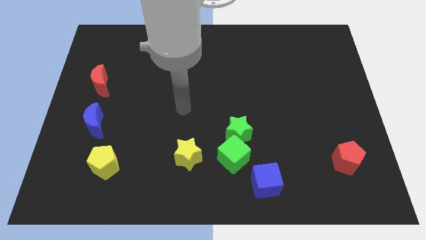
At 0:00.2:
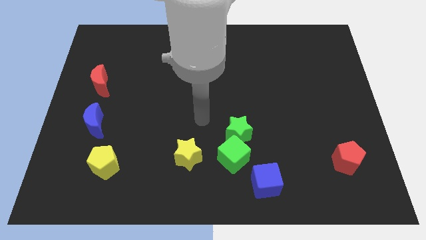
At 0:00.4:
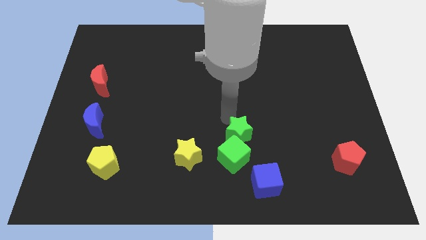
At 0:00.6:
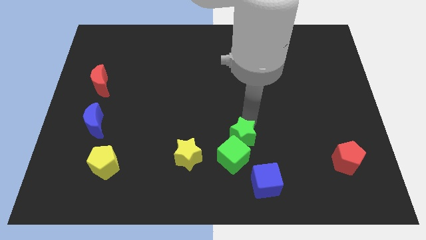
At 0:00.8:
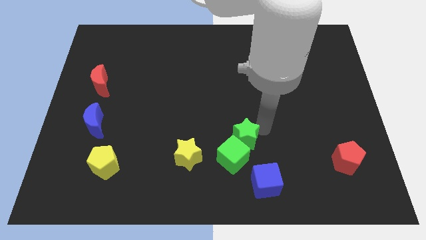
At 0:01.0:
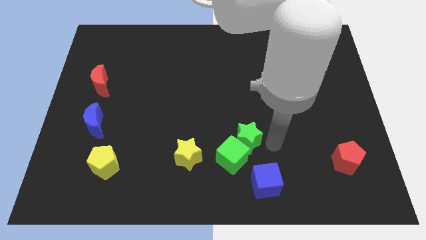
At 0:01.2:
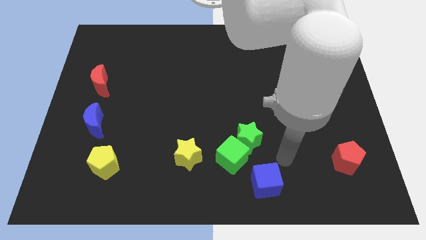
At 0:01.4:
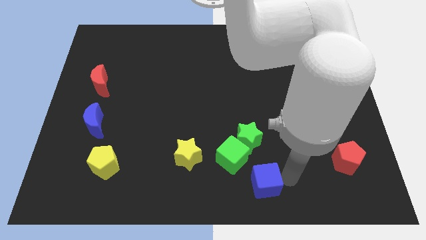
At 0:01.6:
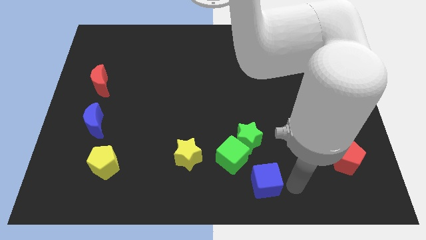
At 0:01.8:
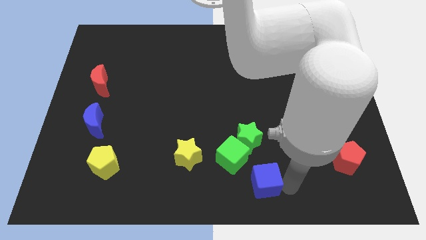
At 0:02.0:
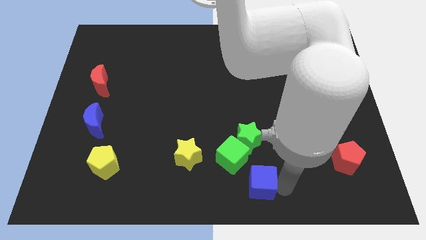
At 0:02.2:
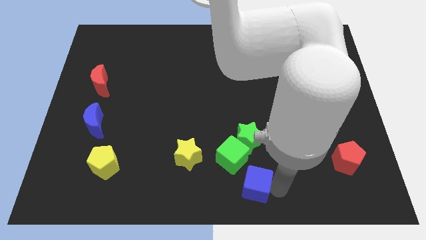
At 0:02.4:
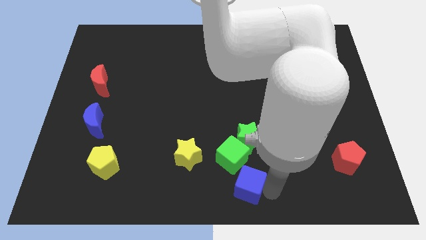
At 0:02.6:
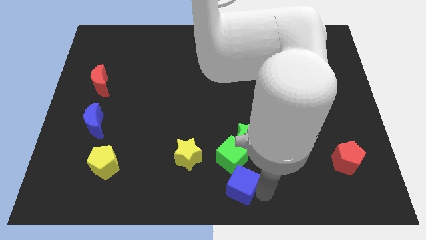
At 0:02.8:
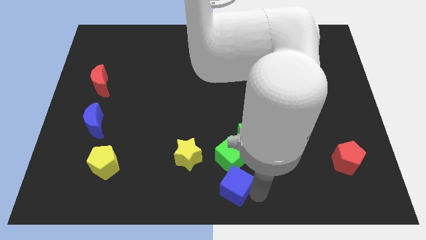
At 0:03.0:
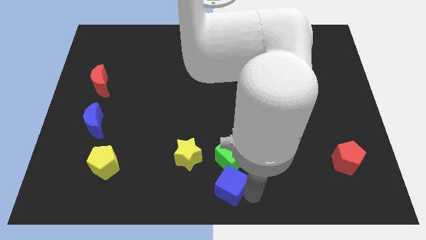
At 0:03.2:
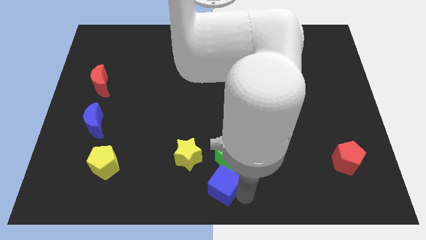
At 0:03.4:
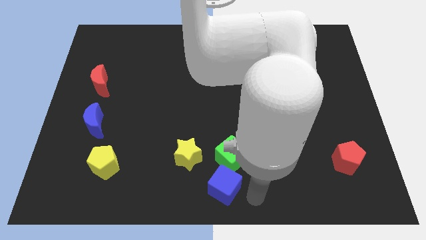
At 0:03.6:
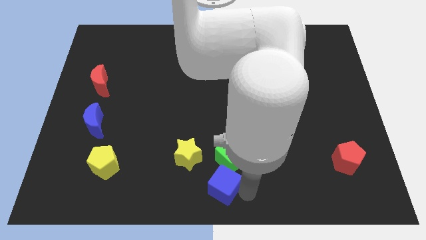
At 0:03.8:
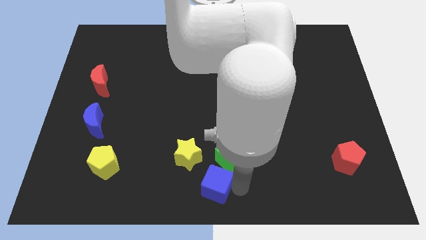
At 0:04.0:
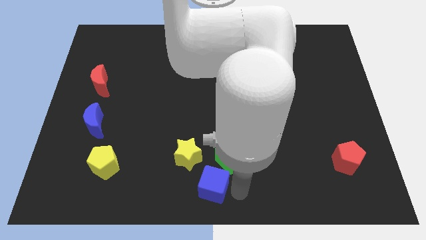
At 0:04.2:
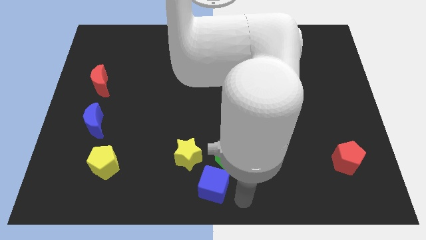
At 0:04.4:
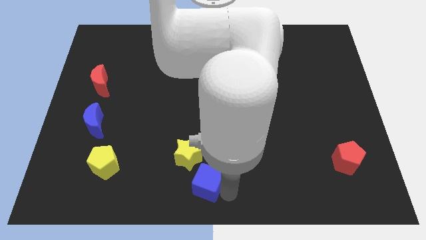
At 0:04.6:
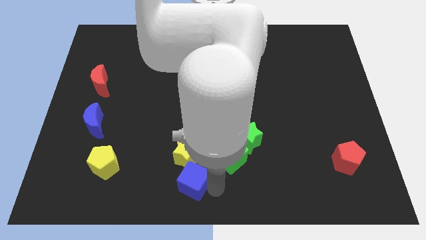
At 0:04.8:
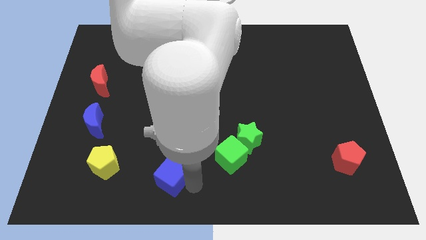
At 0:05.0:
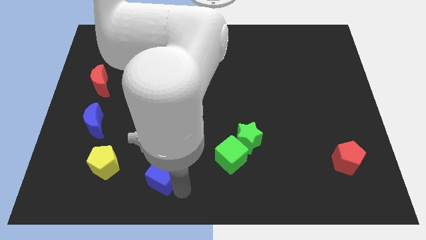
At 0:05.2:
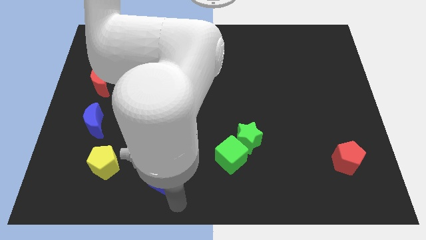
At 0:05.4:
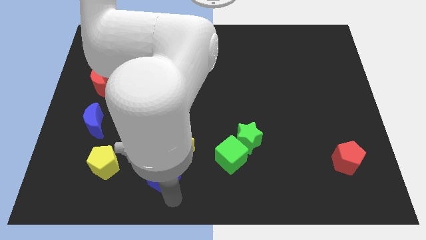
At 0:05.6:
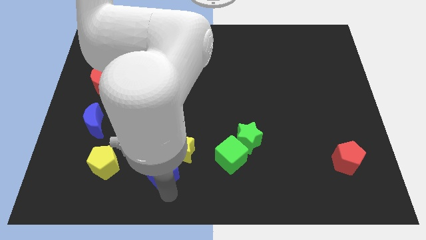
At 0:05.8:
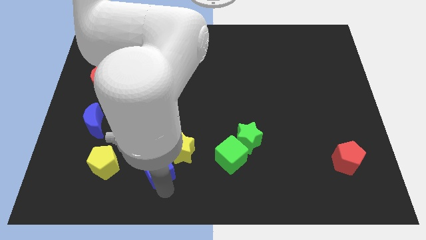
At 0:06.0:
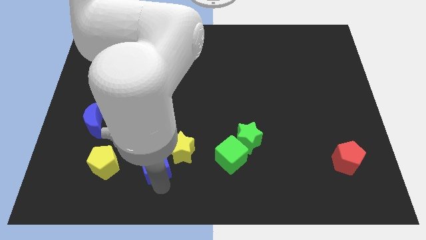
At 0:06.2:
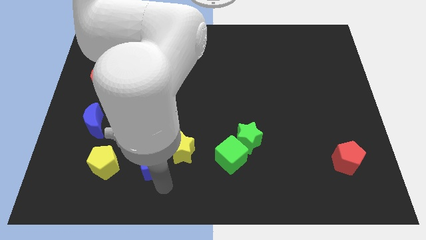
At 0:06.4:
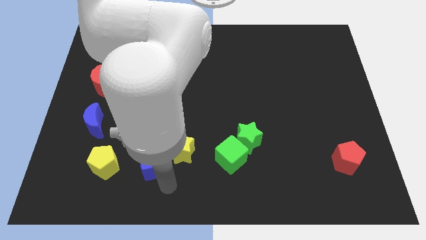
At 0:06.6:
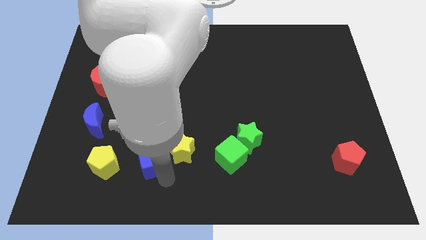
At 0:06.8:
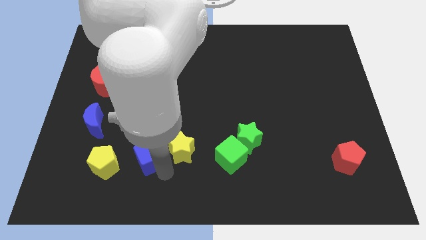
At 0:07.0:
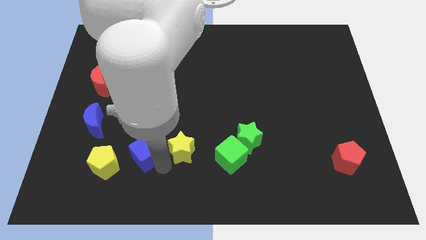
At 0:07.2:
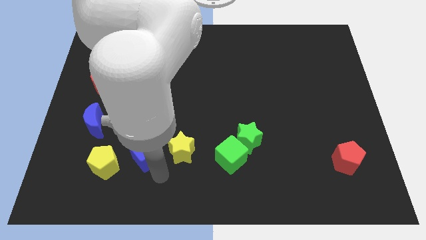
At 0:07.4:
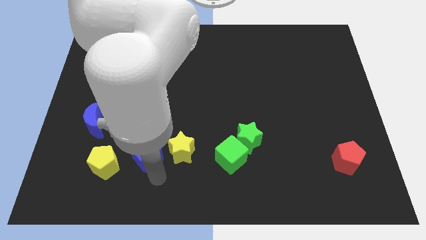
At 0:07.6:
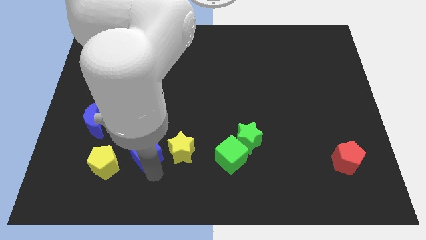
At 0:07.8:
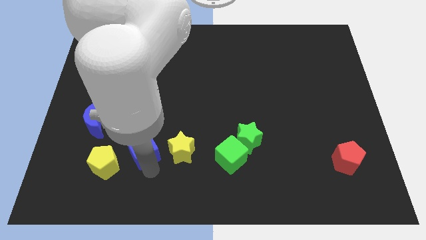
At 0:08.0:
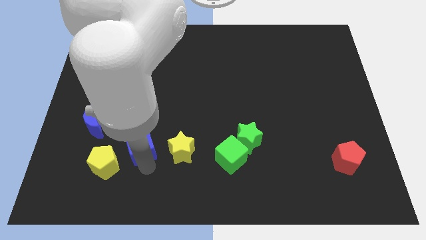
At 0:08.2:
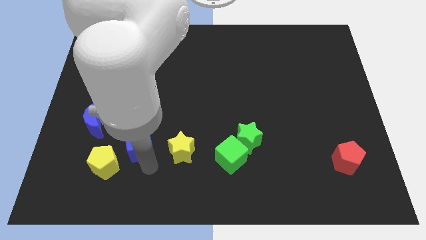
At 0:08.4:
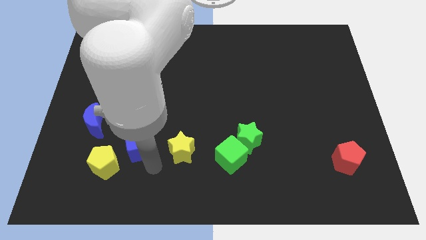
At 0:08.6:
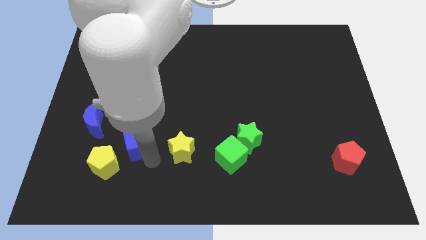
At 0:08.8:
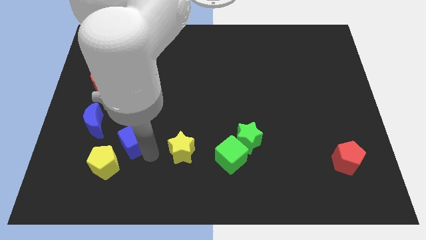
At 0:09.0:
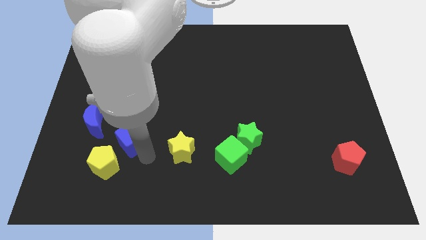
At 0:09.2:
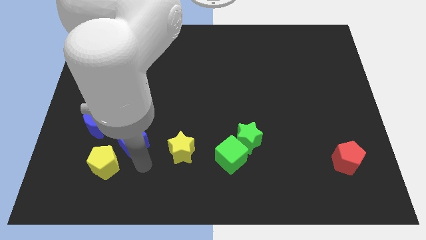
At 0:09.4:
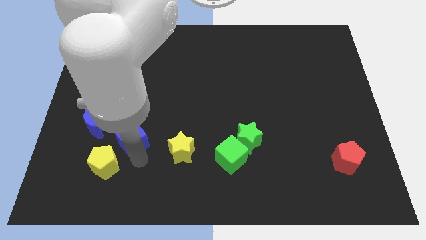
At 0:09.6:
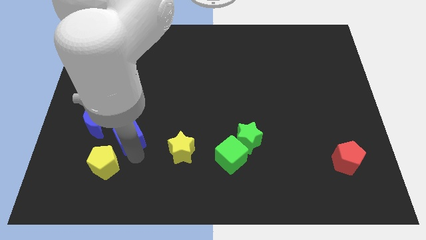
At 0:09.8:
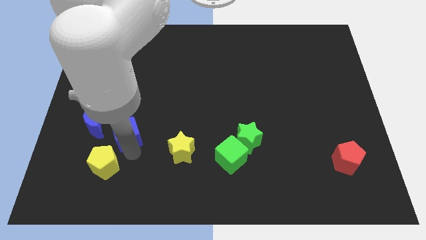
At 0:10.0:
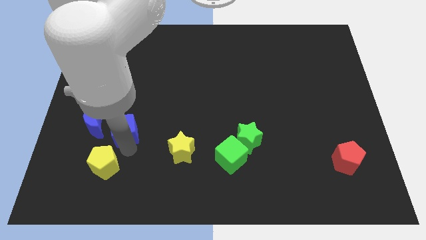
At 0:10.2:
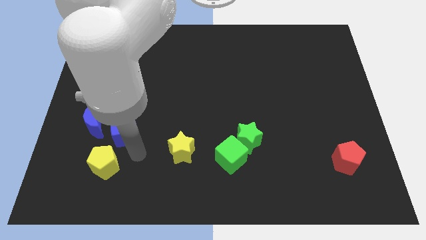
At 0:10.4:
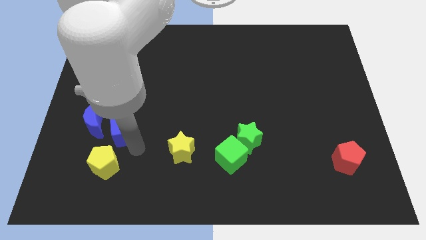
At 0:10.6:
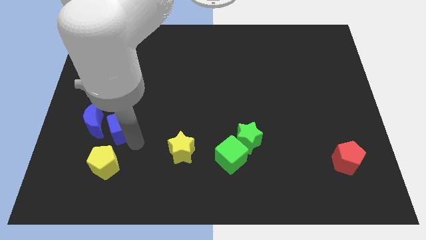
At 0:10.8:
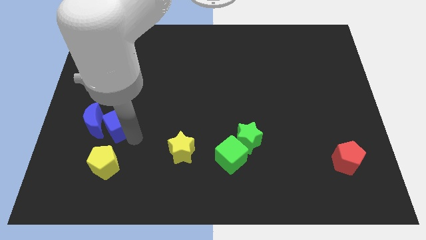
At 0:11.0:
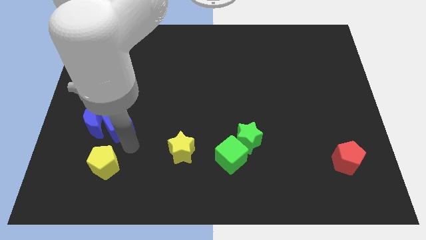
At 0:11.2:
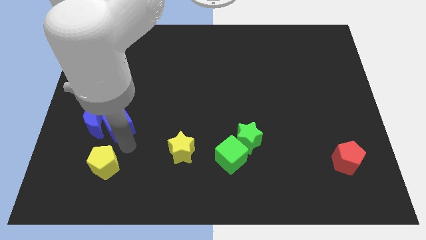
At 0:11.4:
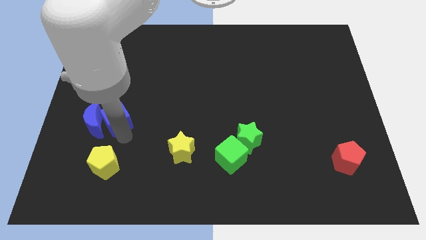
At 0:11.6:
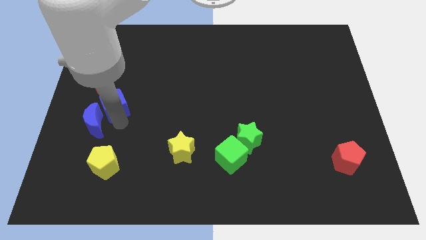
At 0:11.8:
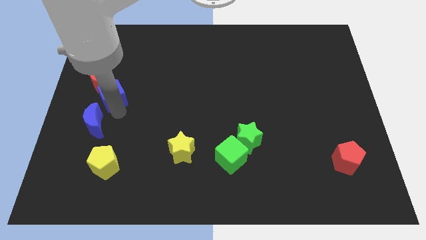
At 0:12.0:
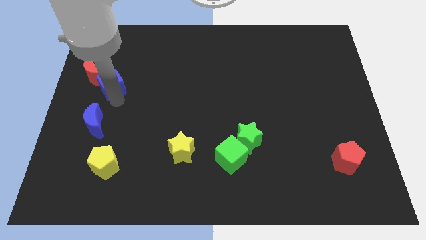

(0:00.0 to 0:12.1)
slide the blue cube next to the red moon

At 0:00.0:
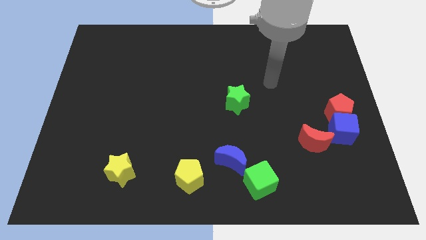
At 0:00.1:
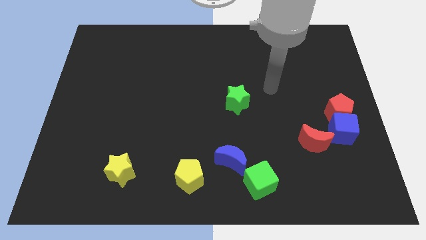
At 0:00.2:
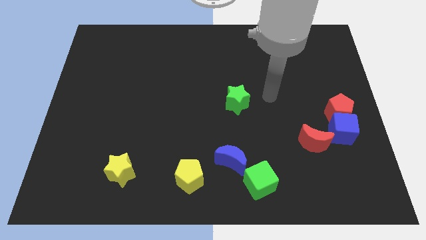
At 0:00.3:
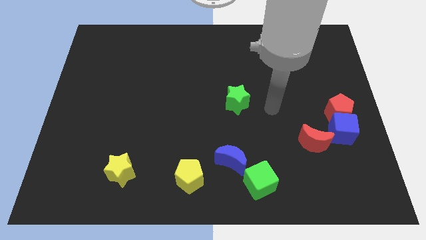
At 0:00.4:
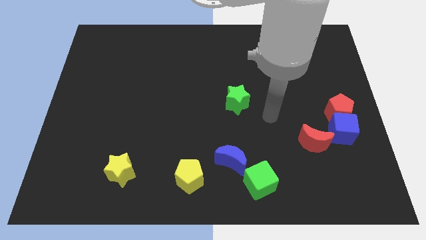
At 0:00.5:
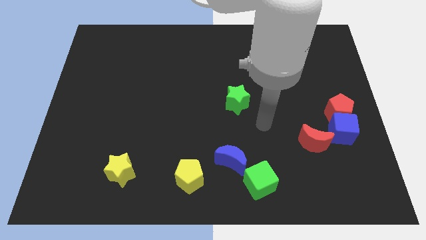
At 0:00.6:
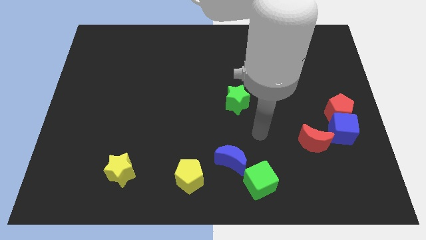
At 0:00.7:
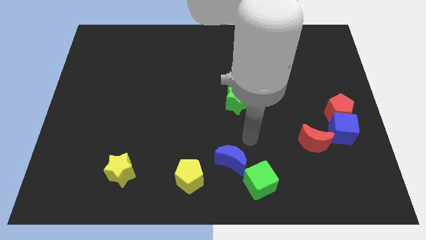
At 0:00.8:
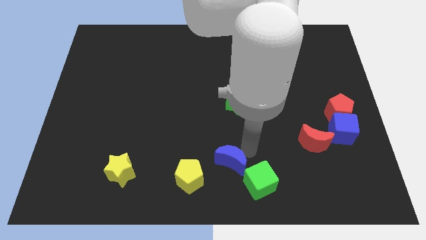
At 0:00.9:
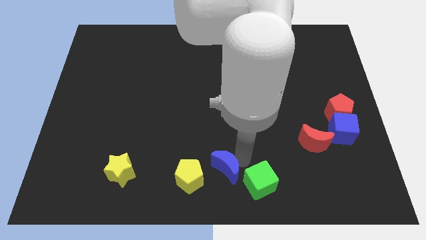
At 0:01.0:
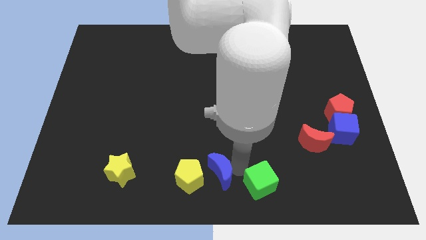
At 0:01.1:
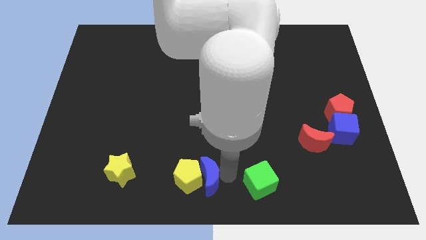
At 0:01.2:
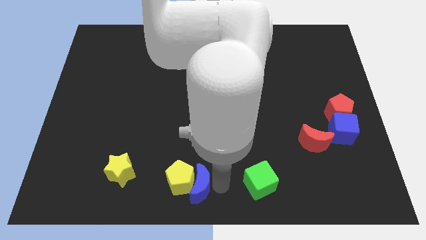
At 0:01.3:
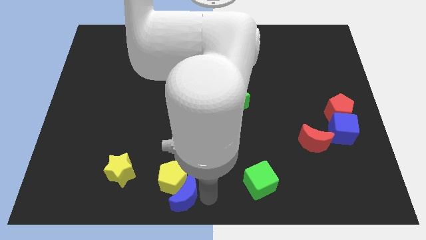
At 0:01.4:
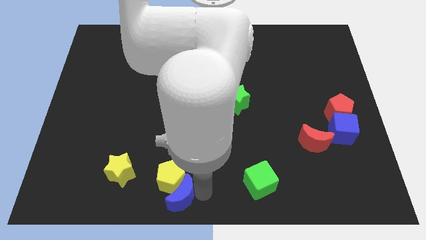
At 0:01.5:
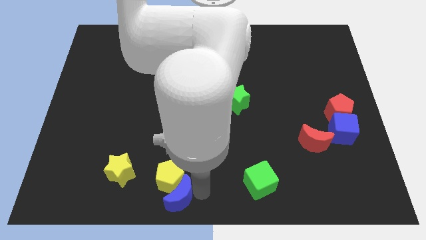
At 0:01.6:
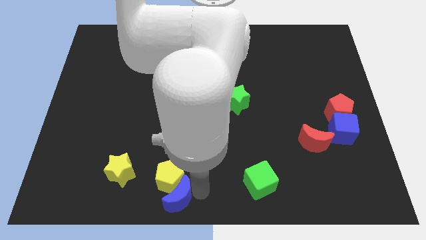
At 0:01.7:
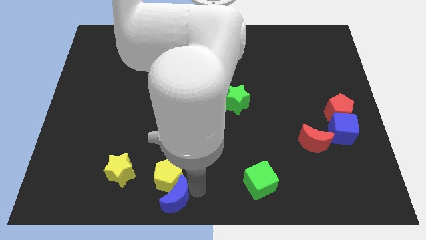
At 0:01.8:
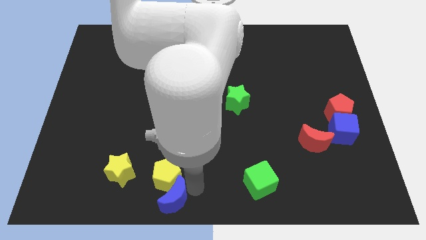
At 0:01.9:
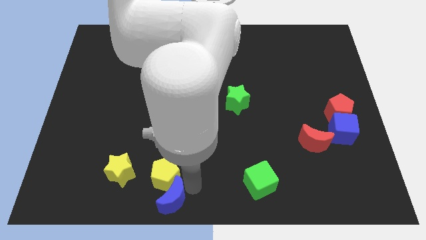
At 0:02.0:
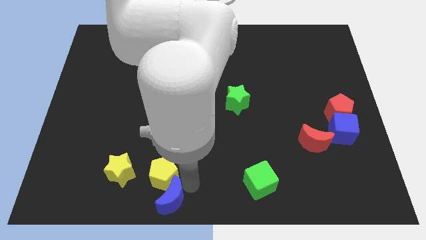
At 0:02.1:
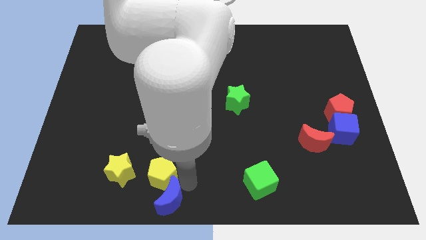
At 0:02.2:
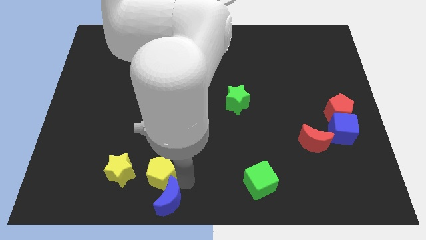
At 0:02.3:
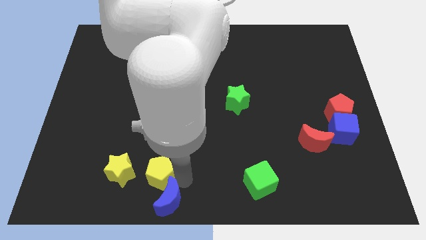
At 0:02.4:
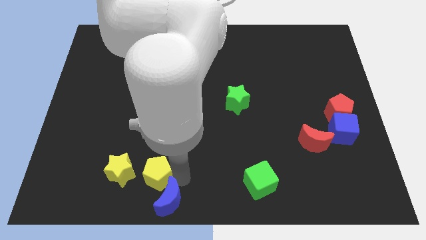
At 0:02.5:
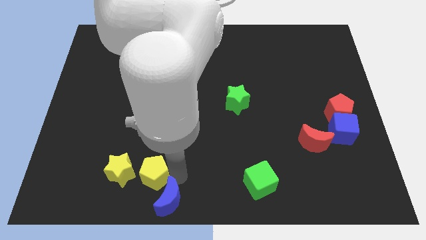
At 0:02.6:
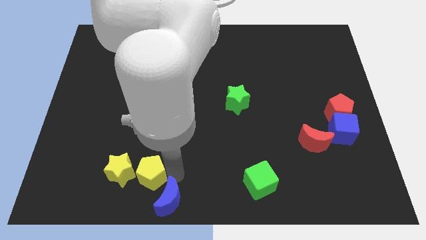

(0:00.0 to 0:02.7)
put the yellow pentagon next to the yellow star
